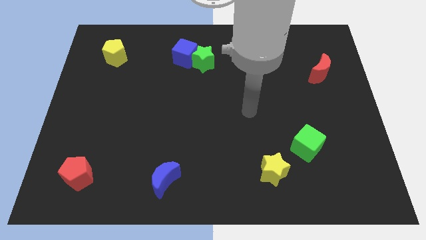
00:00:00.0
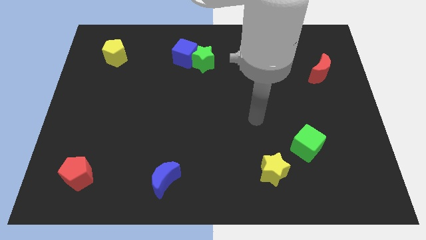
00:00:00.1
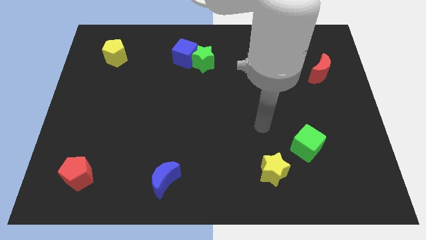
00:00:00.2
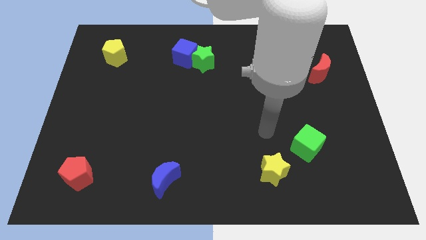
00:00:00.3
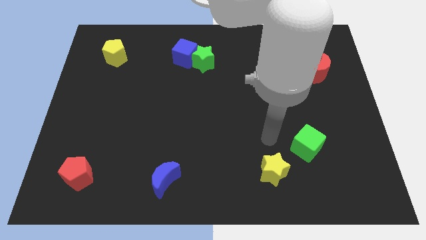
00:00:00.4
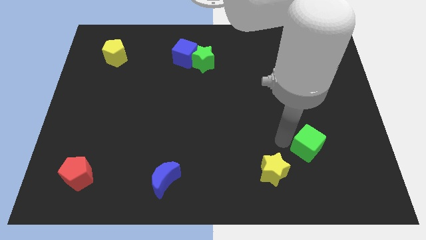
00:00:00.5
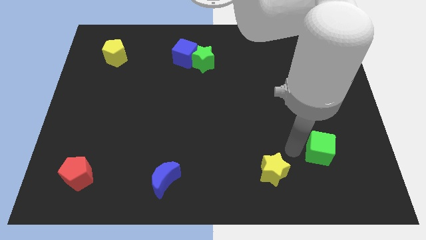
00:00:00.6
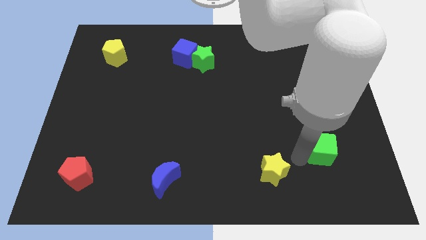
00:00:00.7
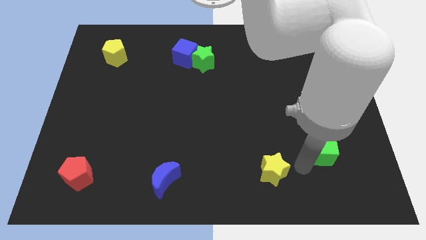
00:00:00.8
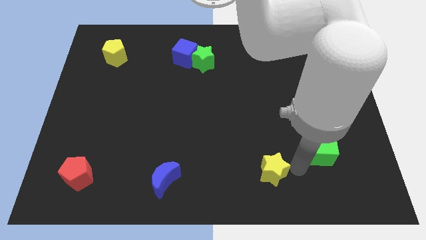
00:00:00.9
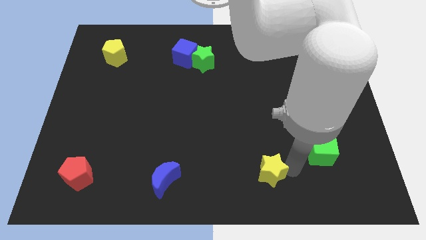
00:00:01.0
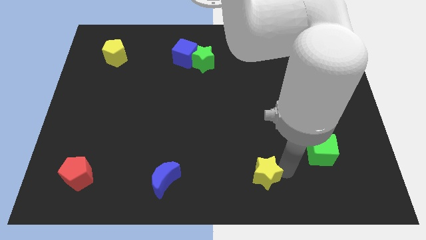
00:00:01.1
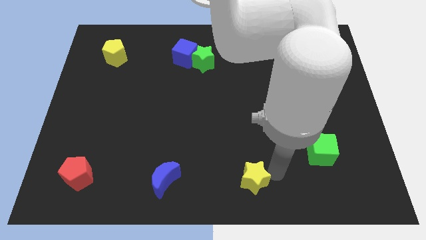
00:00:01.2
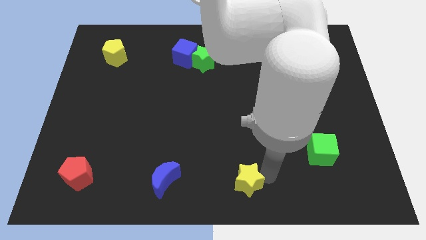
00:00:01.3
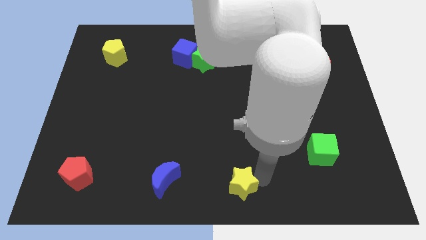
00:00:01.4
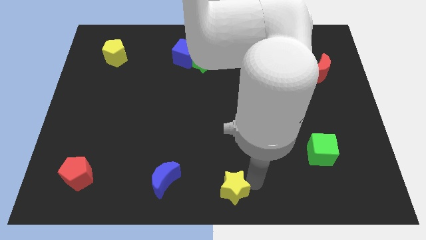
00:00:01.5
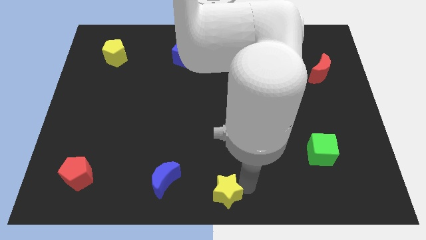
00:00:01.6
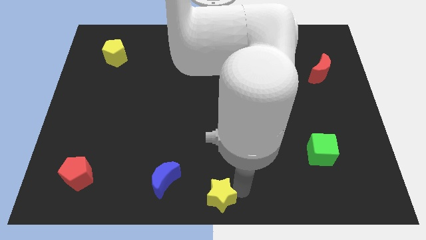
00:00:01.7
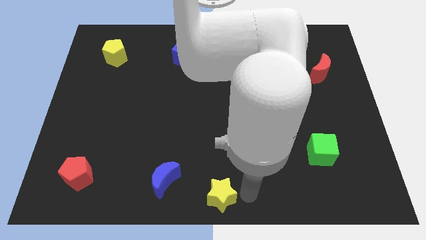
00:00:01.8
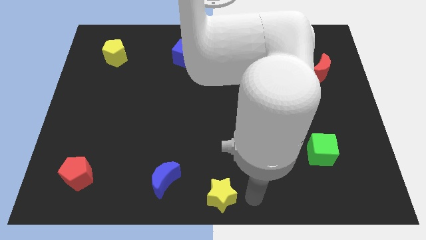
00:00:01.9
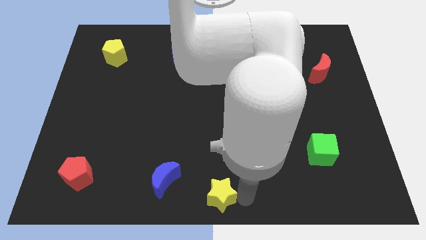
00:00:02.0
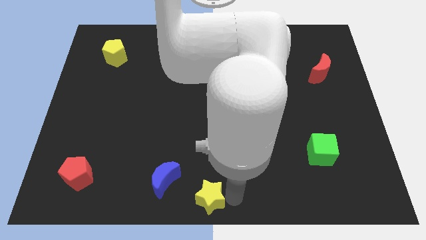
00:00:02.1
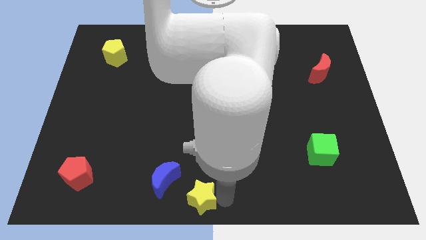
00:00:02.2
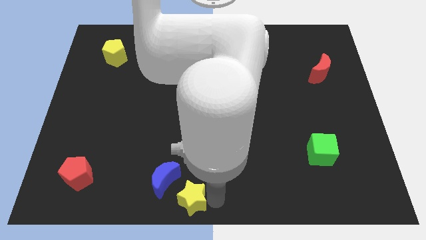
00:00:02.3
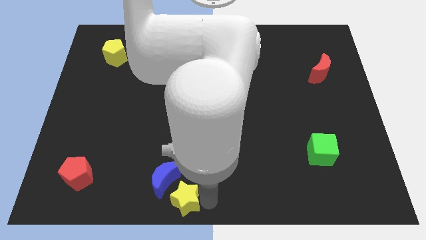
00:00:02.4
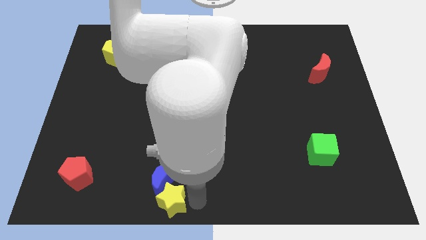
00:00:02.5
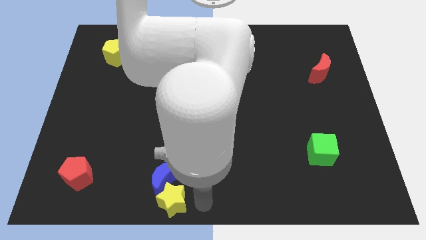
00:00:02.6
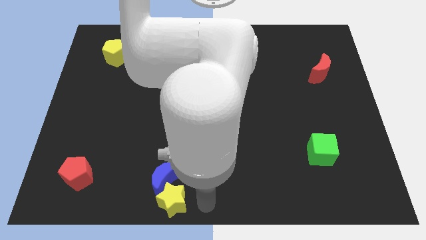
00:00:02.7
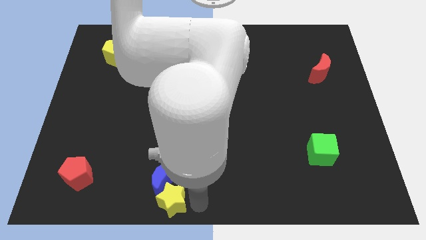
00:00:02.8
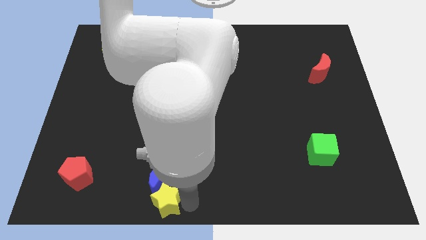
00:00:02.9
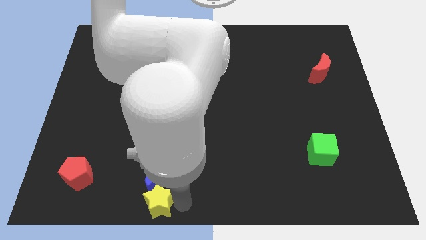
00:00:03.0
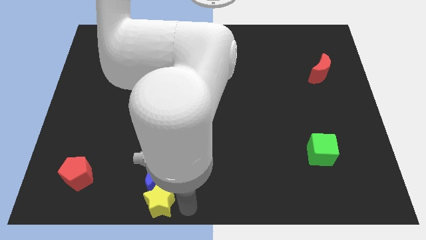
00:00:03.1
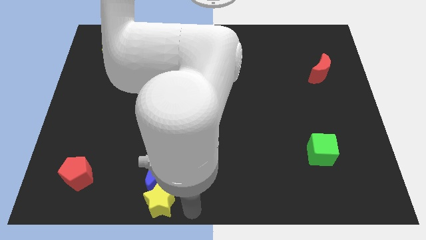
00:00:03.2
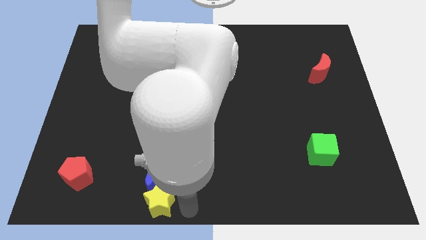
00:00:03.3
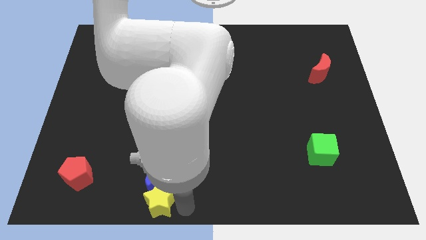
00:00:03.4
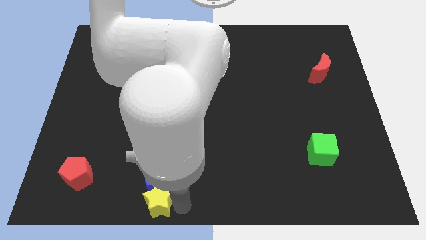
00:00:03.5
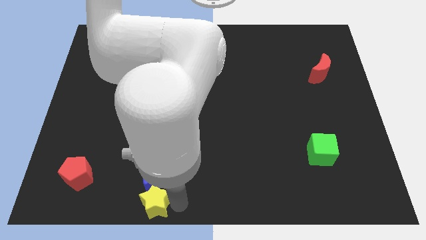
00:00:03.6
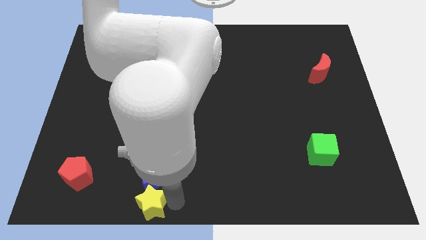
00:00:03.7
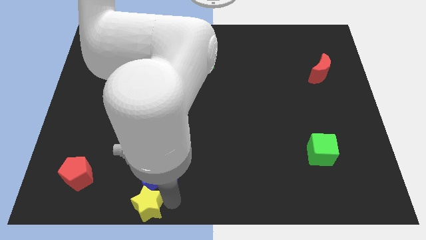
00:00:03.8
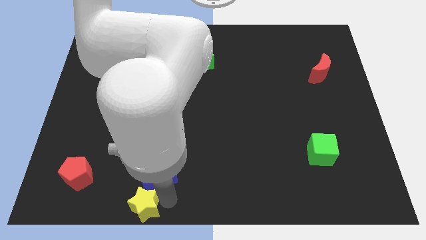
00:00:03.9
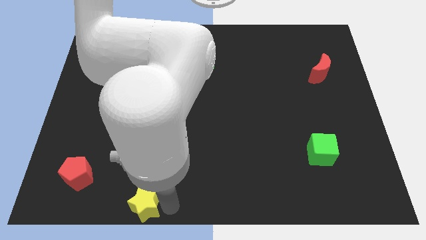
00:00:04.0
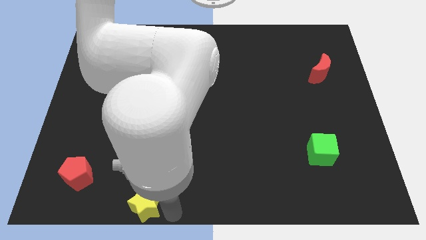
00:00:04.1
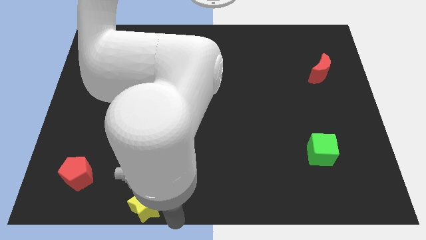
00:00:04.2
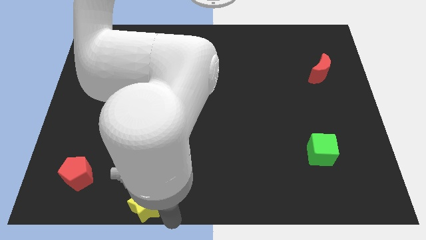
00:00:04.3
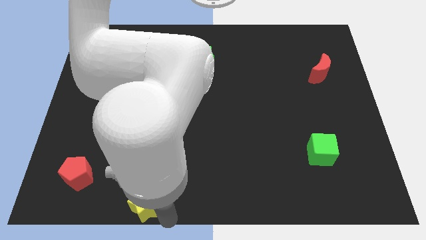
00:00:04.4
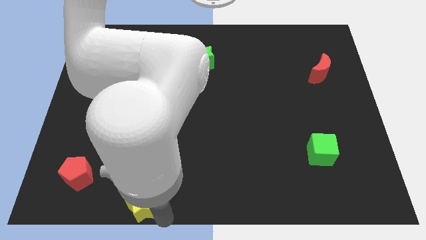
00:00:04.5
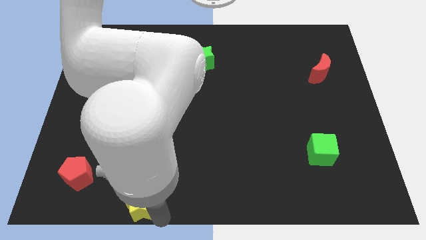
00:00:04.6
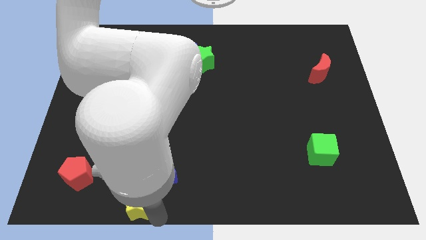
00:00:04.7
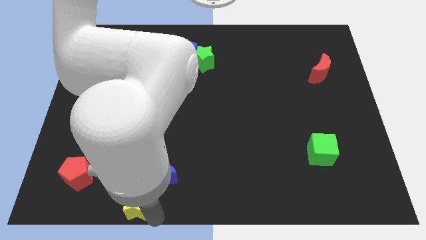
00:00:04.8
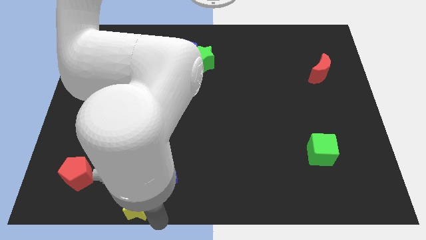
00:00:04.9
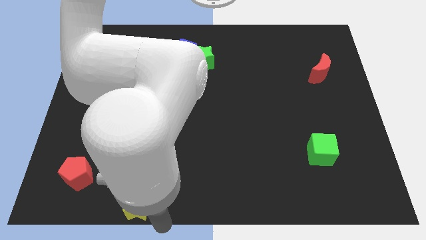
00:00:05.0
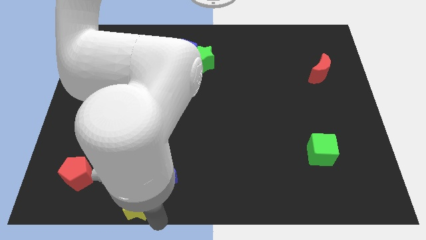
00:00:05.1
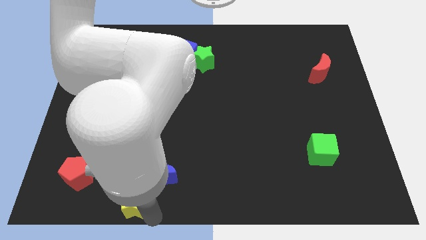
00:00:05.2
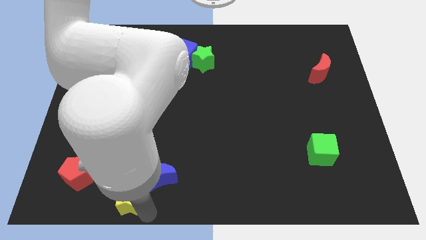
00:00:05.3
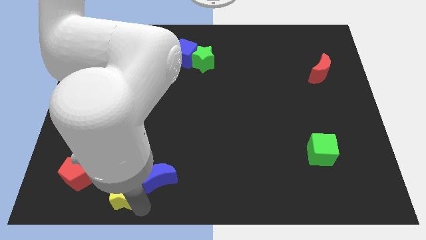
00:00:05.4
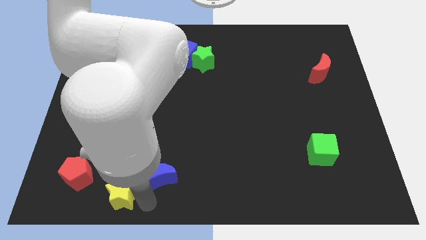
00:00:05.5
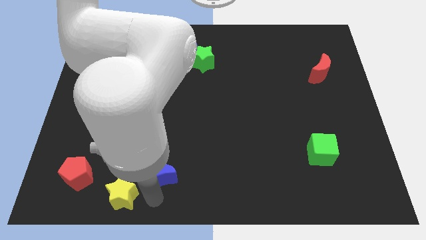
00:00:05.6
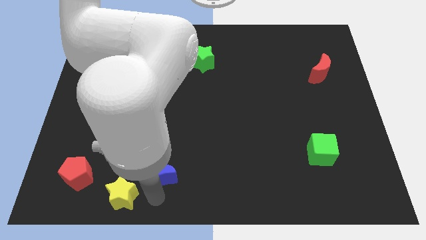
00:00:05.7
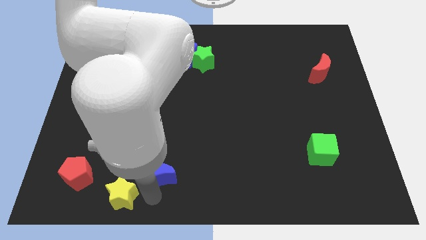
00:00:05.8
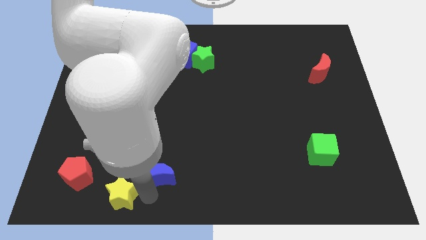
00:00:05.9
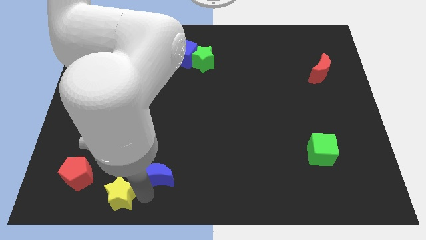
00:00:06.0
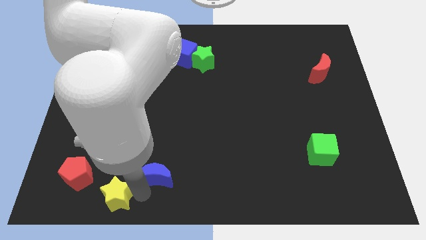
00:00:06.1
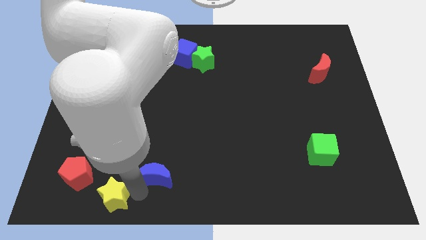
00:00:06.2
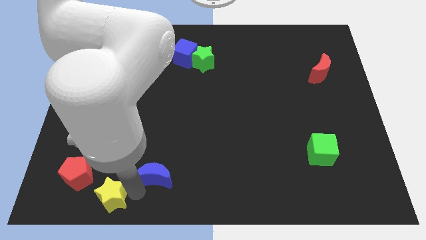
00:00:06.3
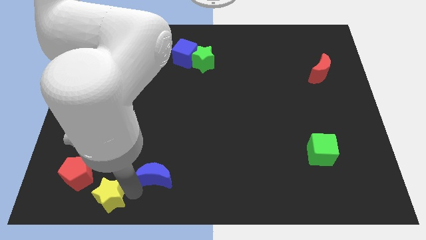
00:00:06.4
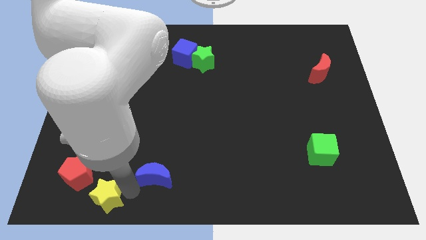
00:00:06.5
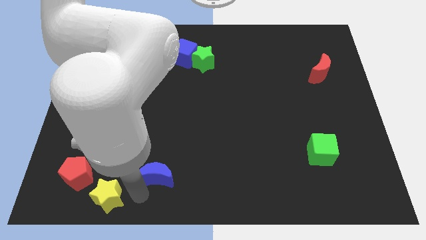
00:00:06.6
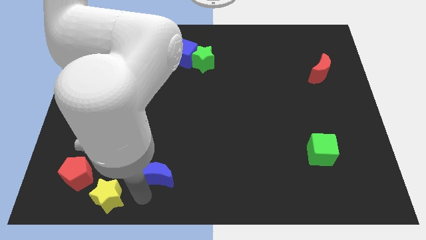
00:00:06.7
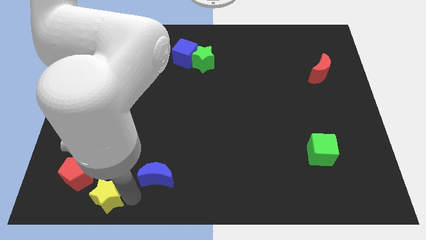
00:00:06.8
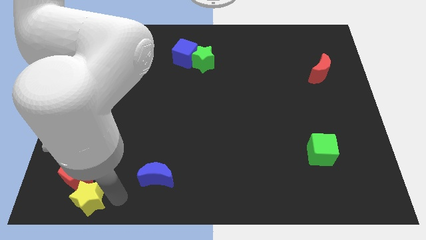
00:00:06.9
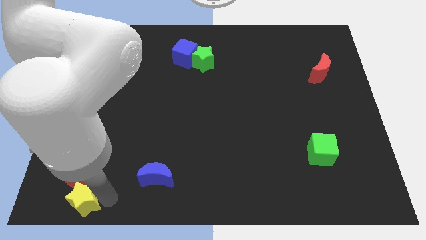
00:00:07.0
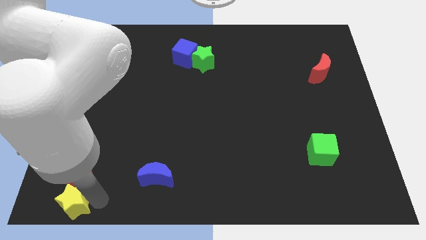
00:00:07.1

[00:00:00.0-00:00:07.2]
slide the yellow star to the bottom left
